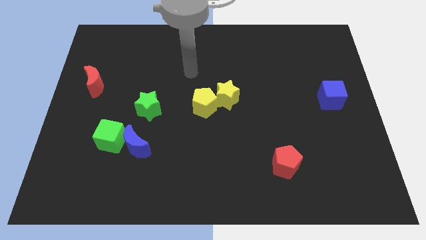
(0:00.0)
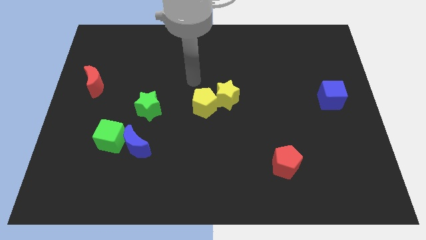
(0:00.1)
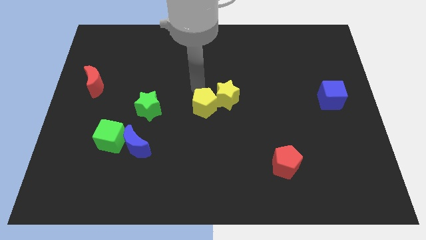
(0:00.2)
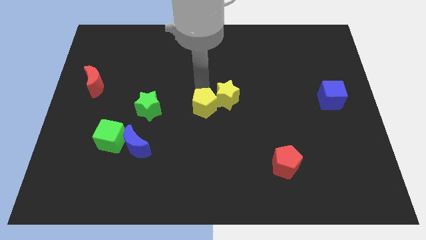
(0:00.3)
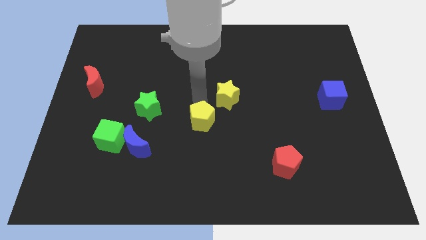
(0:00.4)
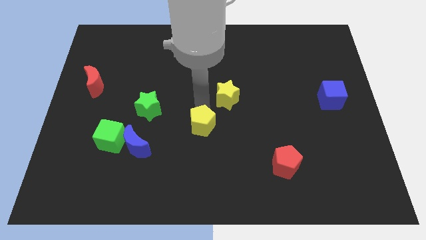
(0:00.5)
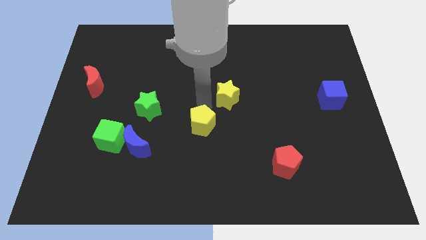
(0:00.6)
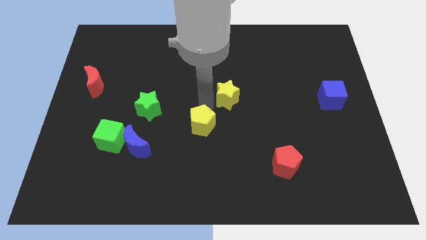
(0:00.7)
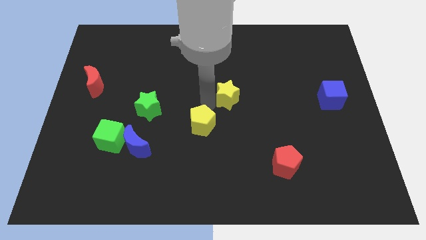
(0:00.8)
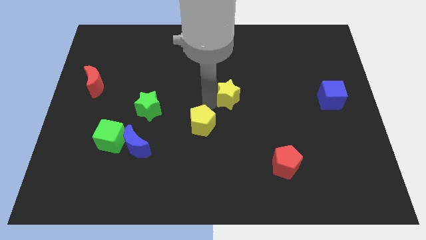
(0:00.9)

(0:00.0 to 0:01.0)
separate the yellow star from the yellow pentagon

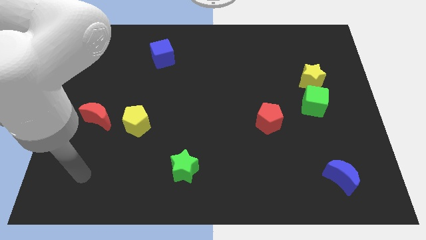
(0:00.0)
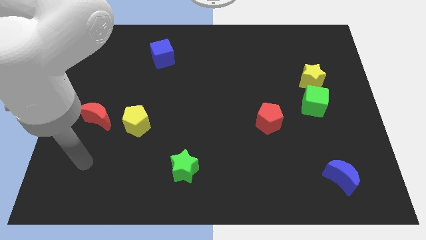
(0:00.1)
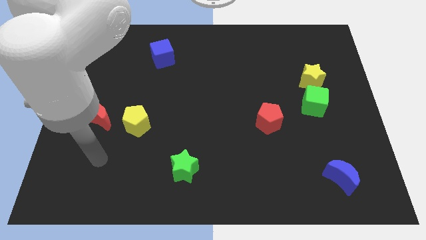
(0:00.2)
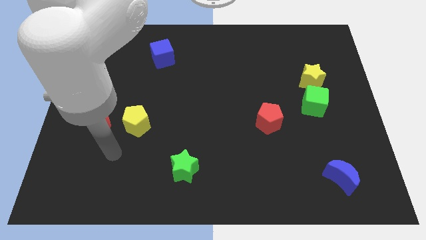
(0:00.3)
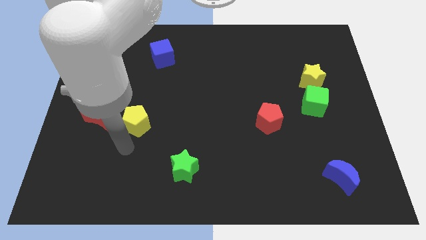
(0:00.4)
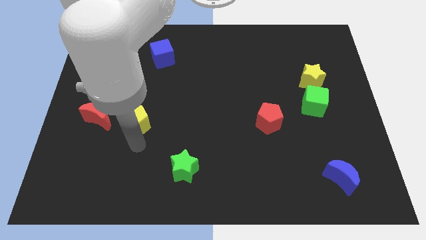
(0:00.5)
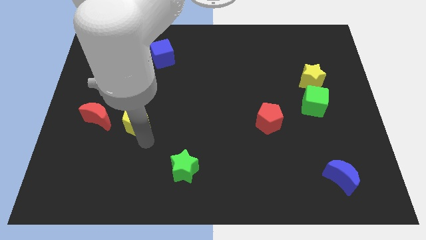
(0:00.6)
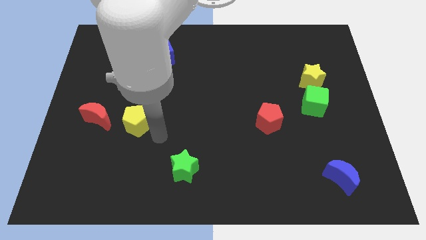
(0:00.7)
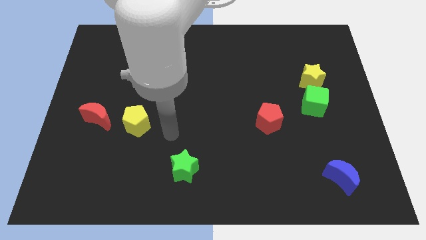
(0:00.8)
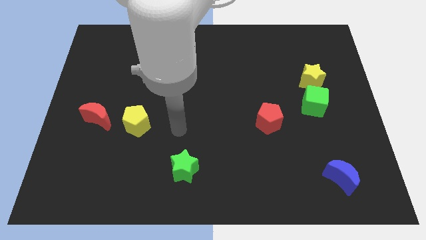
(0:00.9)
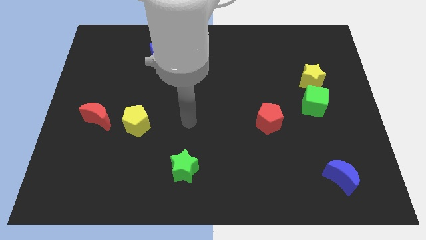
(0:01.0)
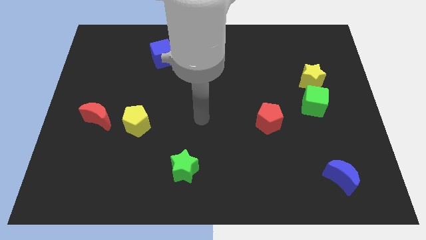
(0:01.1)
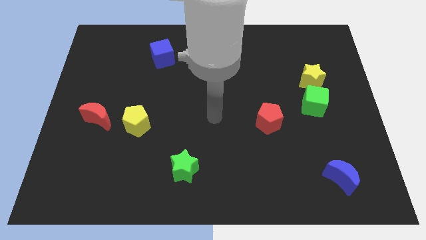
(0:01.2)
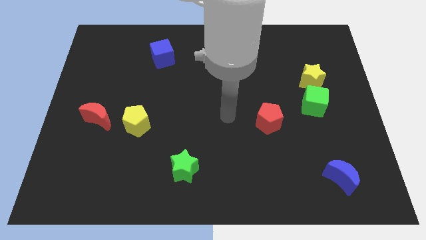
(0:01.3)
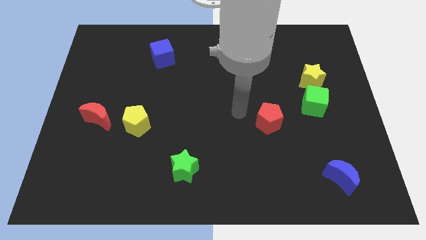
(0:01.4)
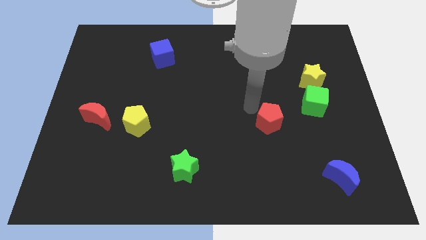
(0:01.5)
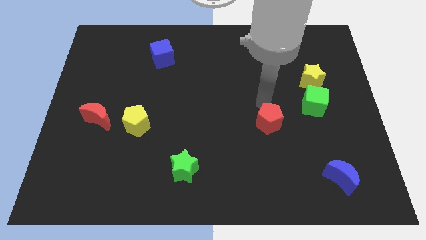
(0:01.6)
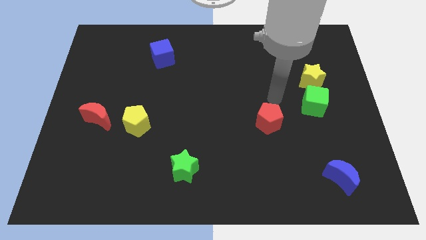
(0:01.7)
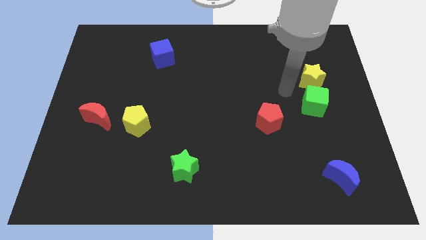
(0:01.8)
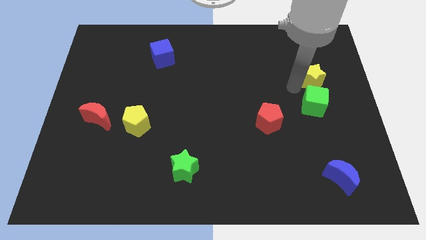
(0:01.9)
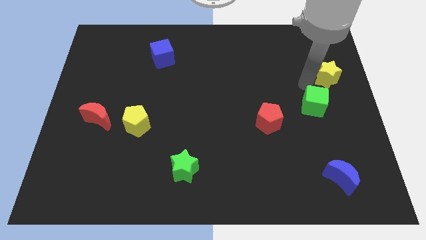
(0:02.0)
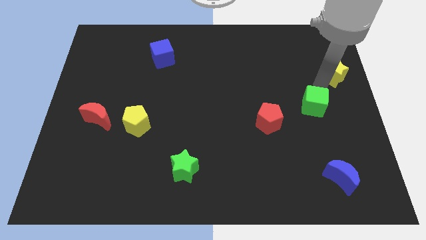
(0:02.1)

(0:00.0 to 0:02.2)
pull the green cube apart from the yellow star

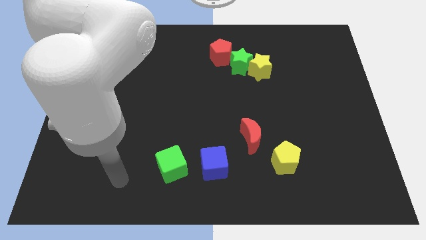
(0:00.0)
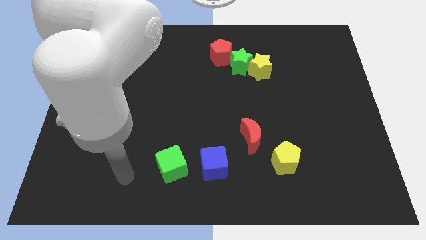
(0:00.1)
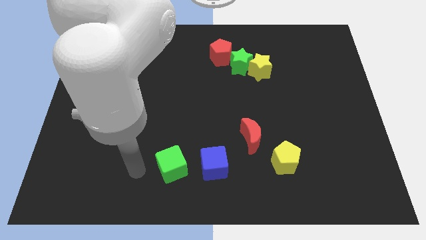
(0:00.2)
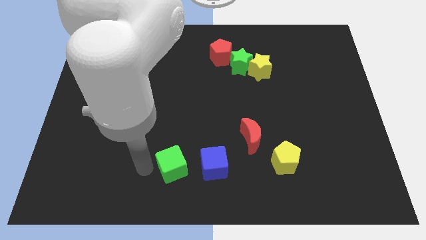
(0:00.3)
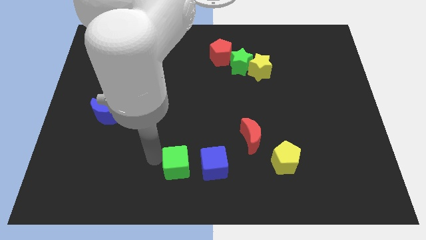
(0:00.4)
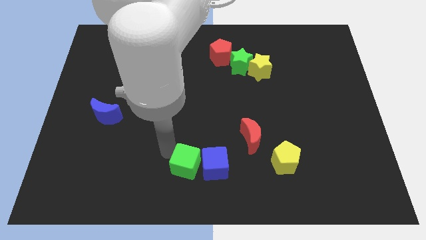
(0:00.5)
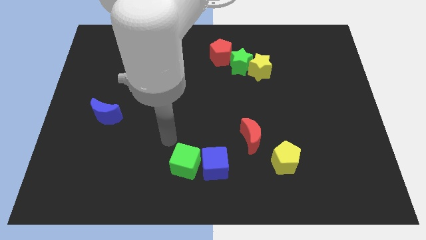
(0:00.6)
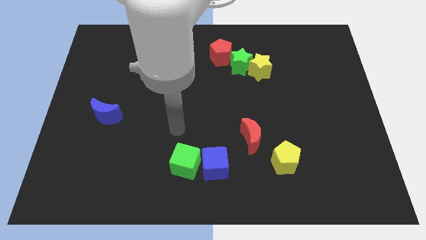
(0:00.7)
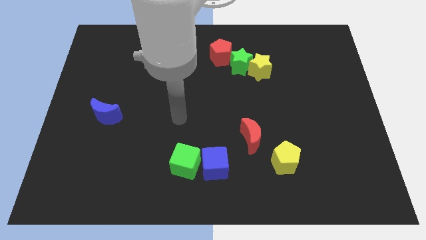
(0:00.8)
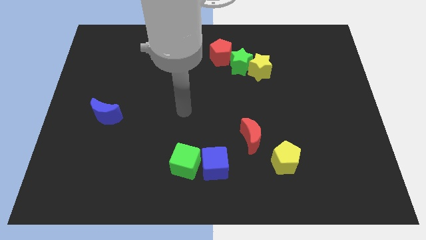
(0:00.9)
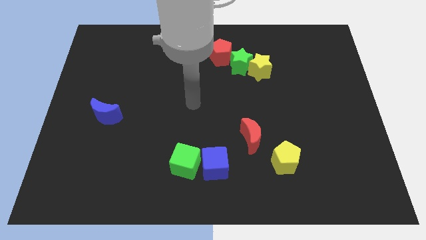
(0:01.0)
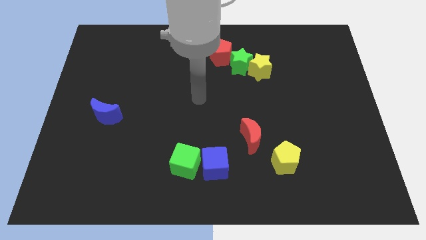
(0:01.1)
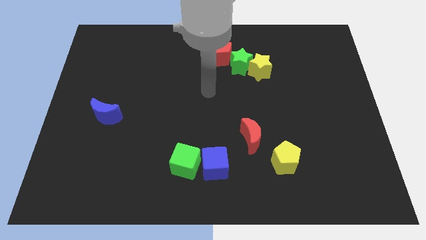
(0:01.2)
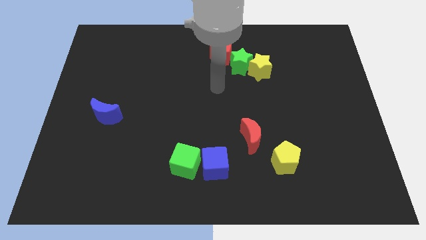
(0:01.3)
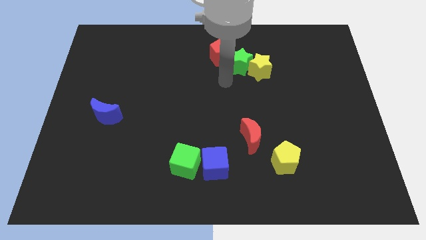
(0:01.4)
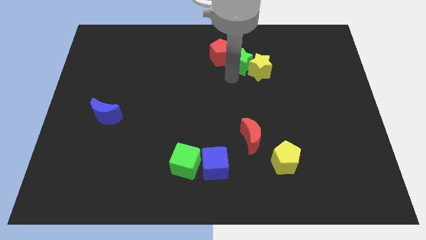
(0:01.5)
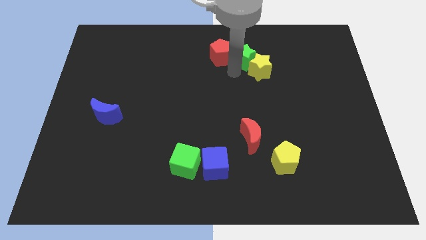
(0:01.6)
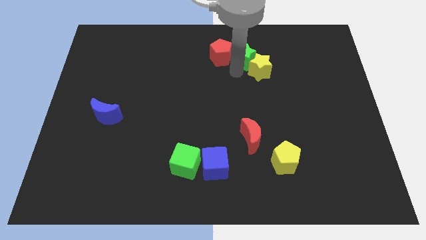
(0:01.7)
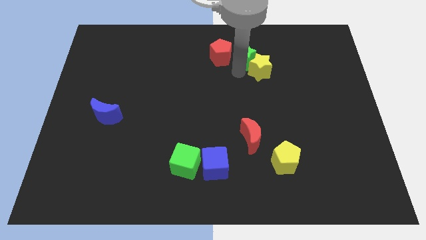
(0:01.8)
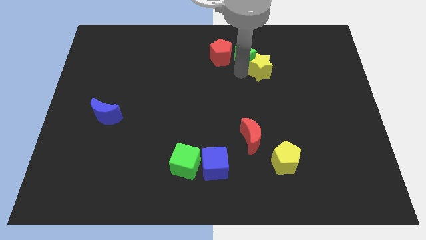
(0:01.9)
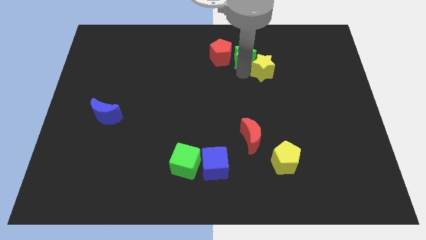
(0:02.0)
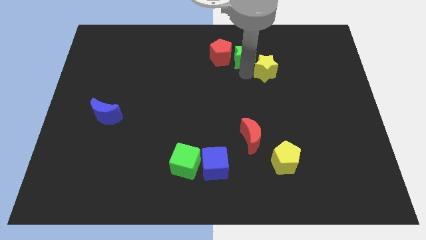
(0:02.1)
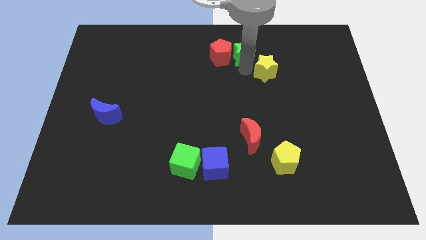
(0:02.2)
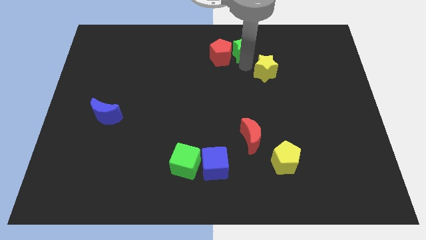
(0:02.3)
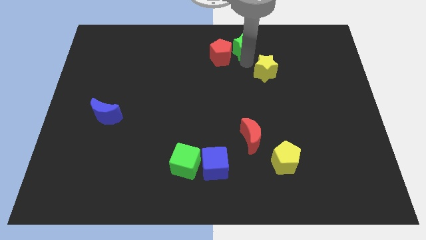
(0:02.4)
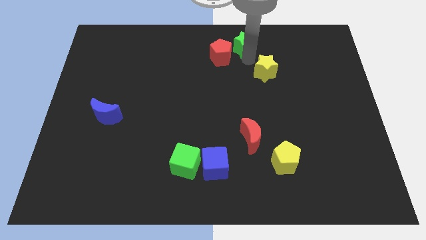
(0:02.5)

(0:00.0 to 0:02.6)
separate the yellow star from the green star

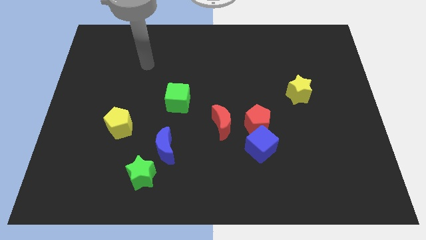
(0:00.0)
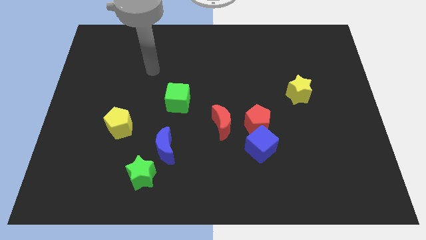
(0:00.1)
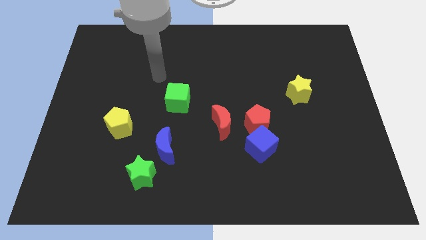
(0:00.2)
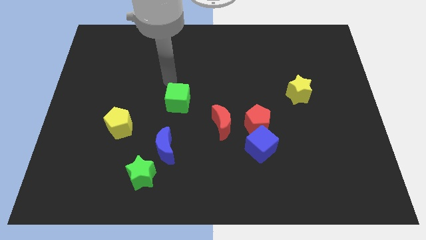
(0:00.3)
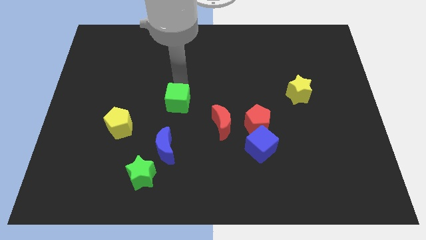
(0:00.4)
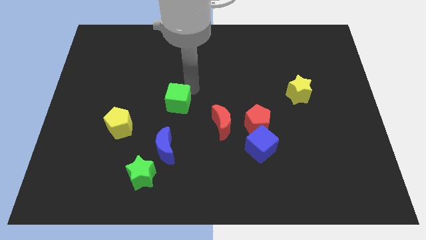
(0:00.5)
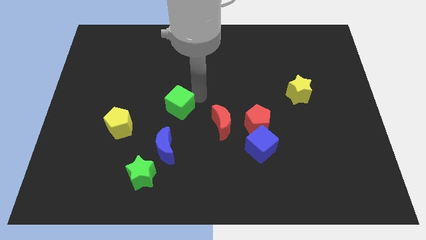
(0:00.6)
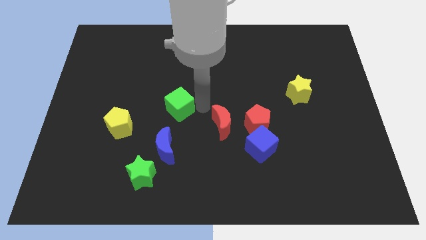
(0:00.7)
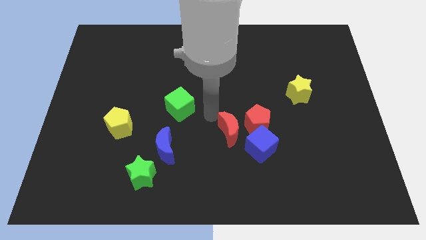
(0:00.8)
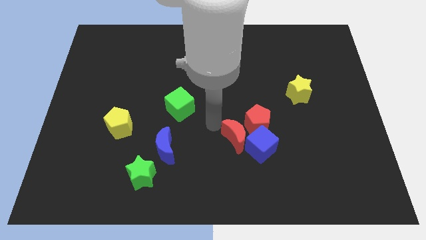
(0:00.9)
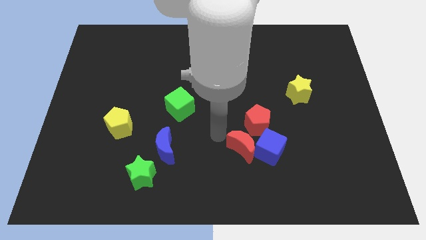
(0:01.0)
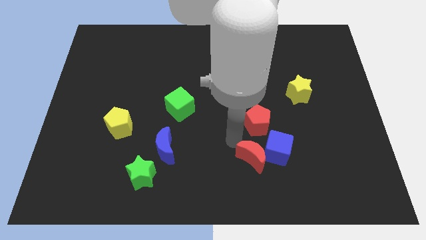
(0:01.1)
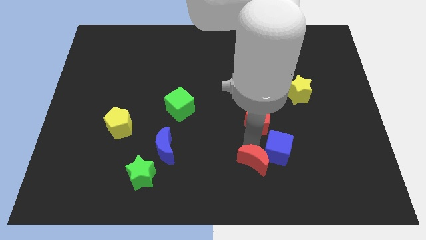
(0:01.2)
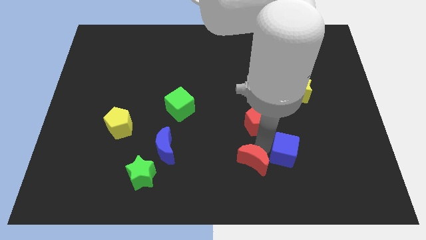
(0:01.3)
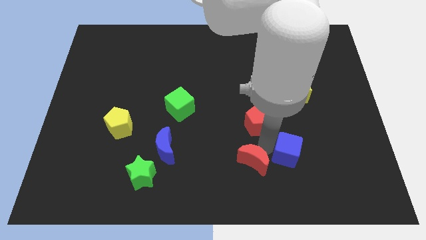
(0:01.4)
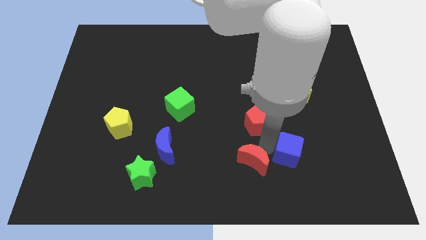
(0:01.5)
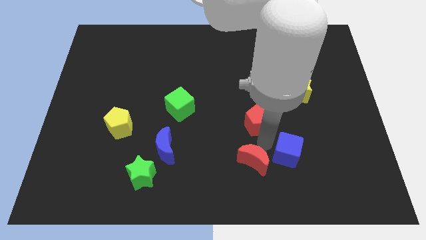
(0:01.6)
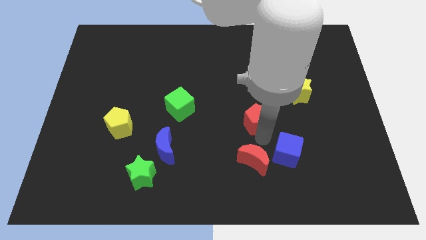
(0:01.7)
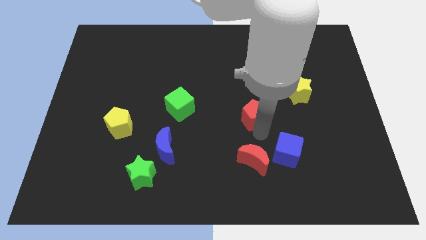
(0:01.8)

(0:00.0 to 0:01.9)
separate the red pentagon from the blue cube and red moon

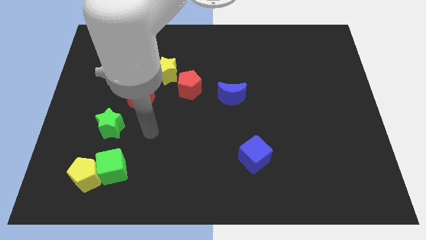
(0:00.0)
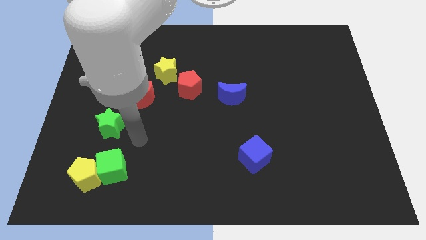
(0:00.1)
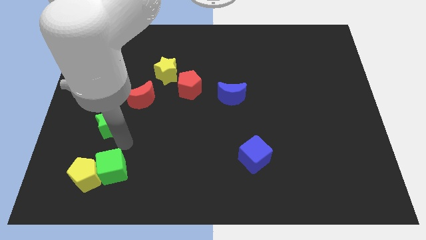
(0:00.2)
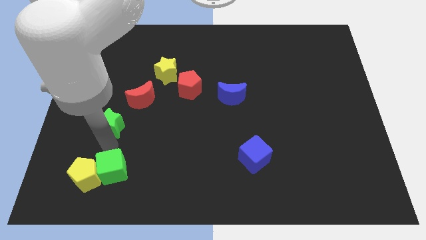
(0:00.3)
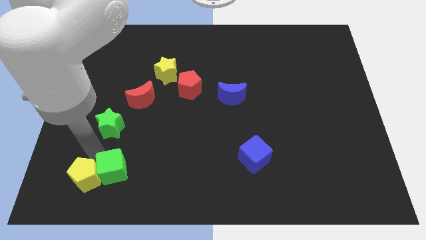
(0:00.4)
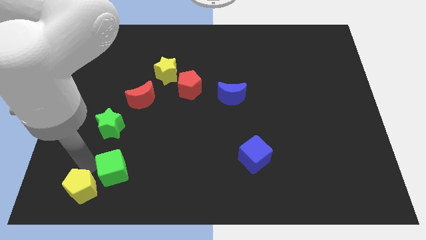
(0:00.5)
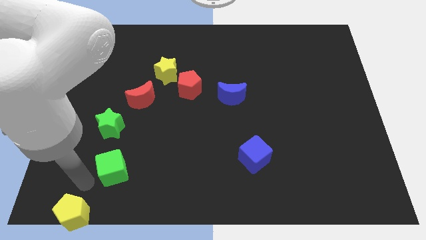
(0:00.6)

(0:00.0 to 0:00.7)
move the green cube away from the yellow pentagon

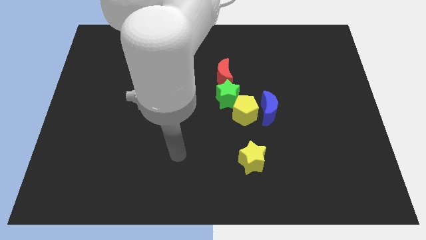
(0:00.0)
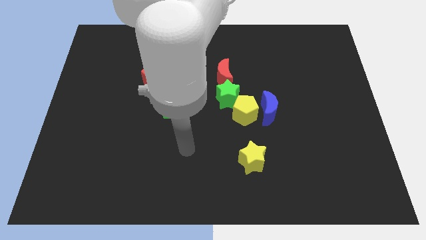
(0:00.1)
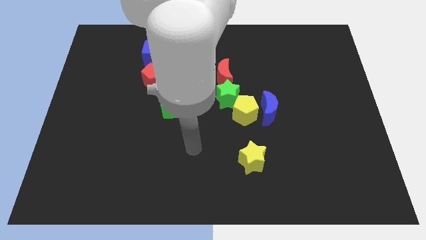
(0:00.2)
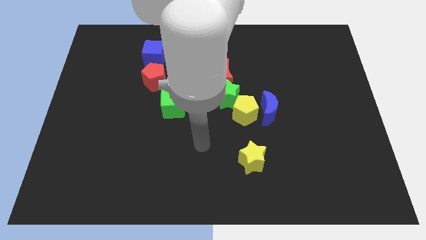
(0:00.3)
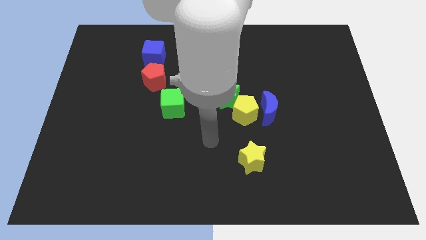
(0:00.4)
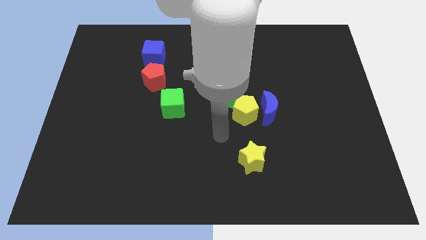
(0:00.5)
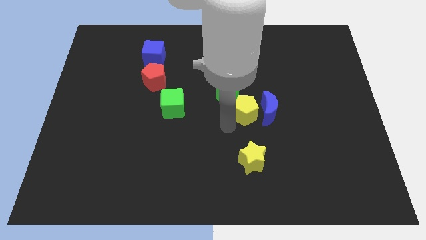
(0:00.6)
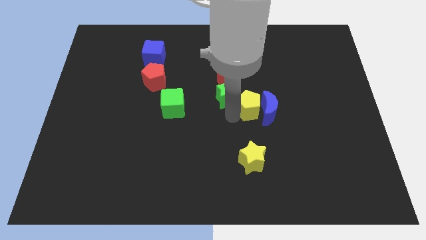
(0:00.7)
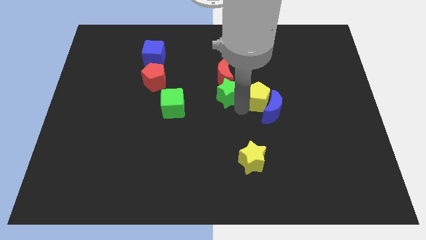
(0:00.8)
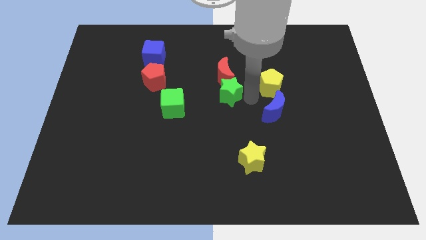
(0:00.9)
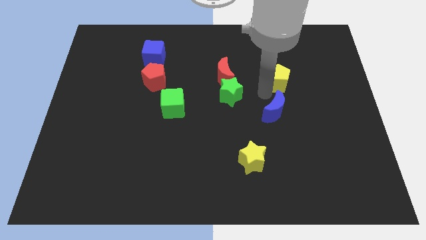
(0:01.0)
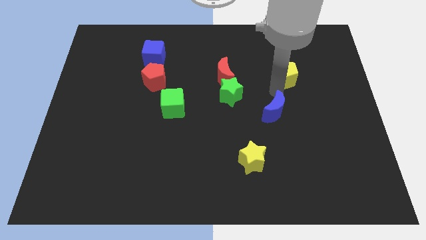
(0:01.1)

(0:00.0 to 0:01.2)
move the blue moon away from the yellow pentagon
